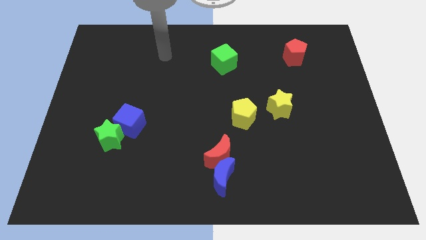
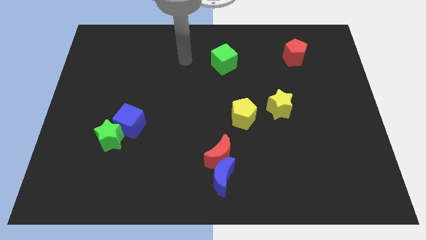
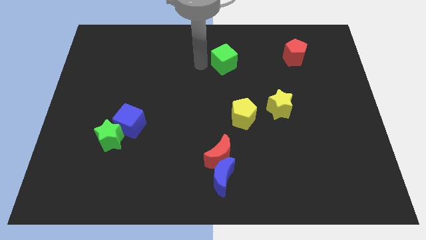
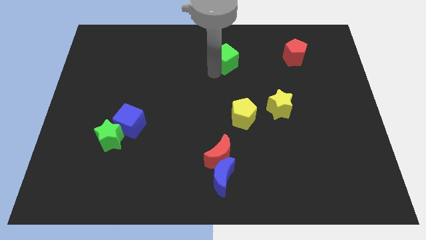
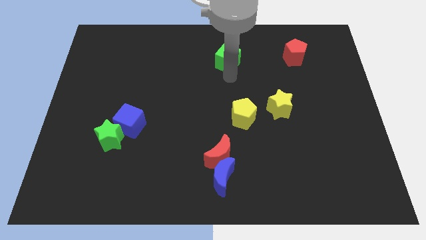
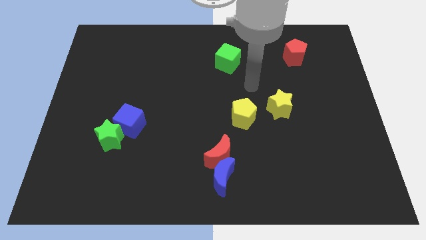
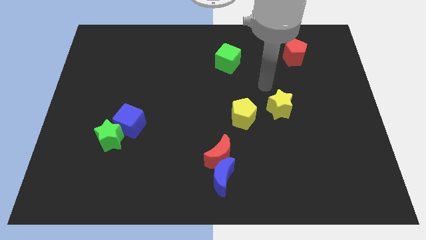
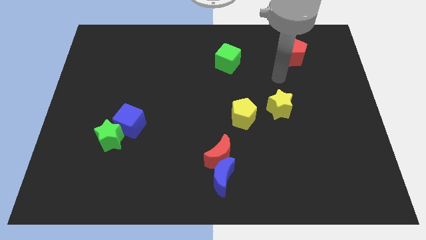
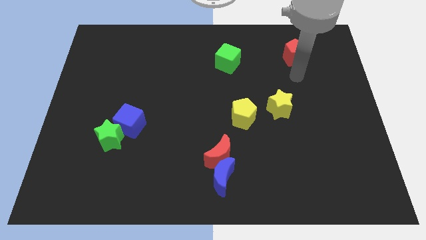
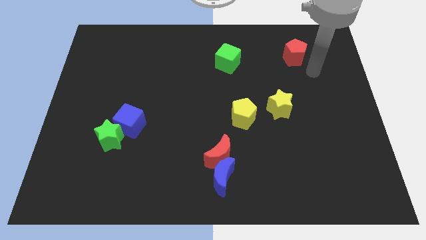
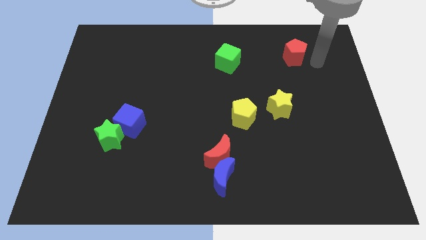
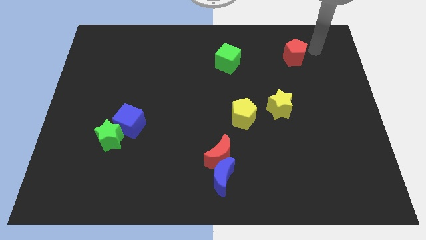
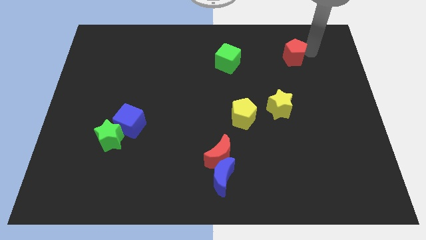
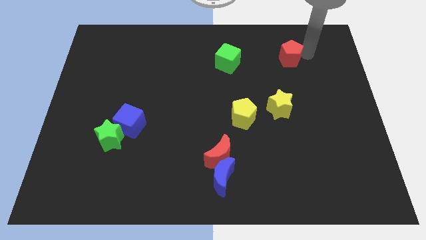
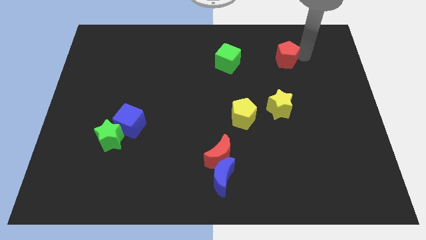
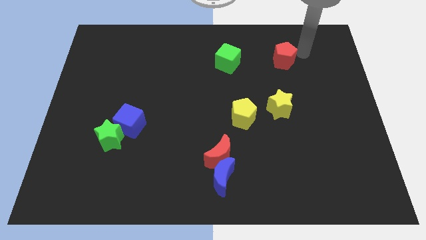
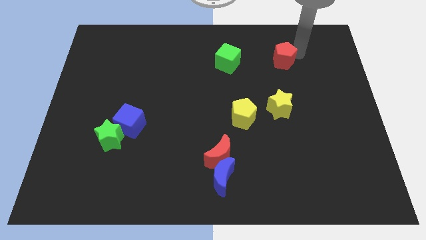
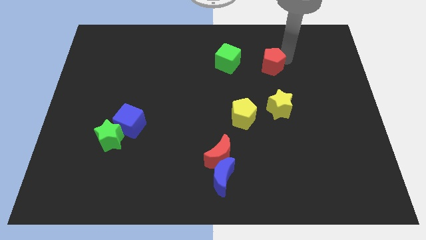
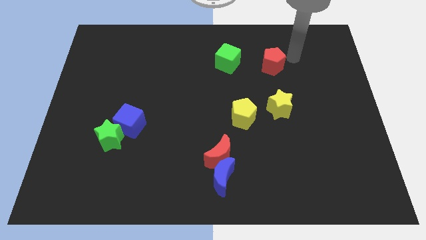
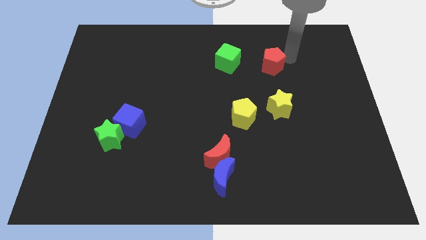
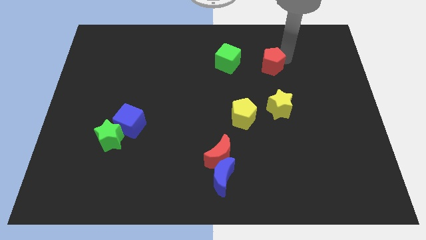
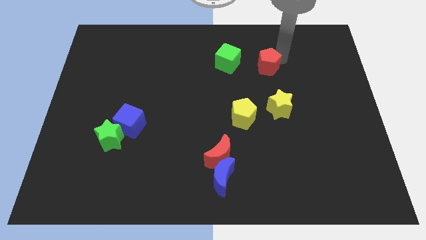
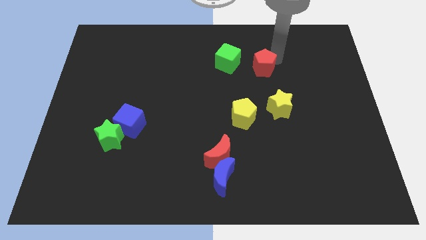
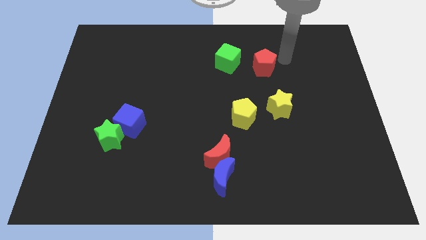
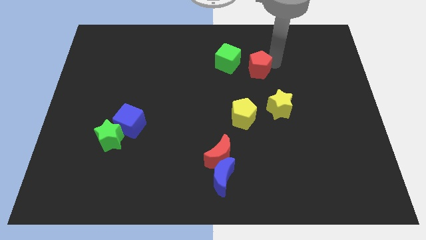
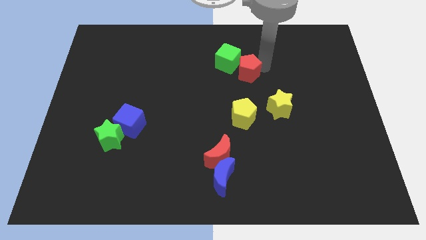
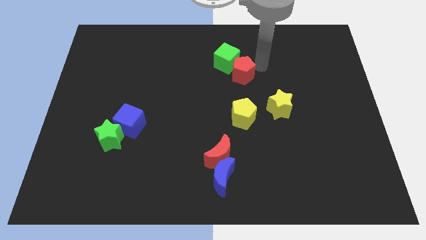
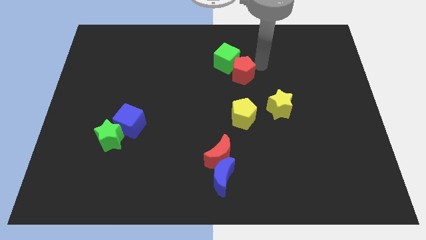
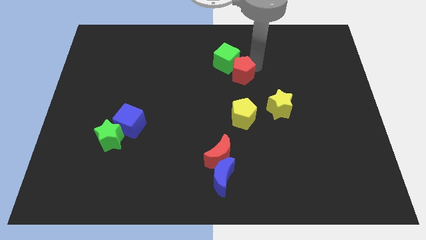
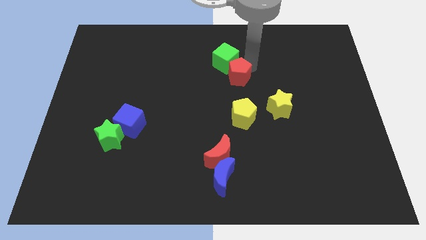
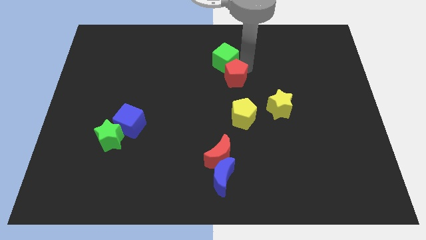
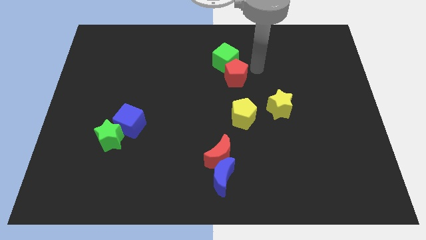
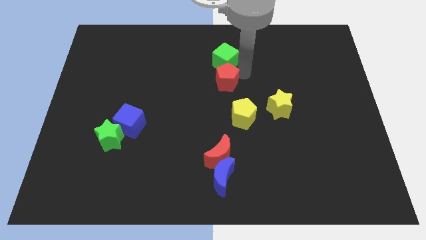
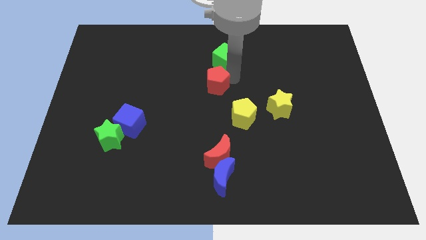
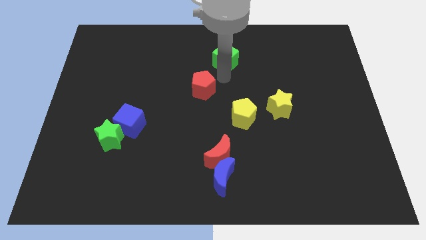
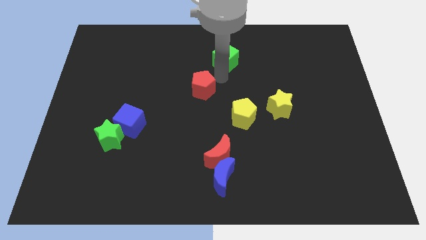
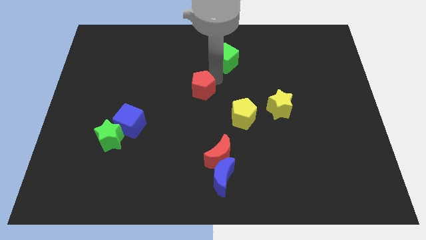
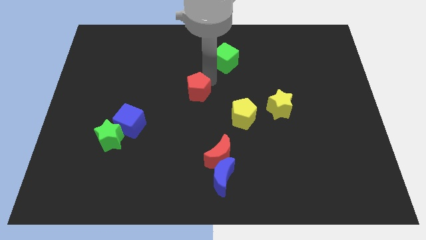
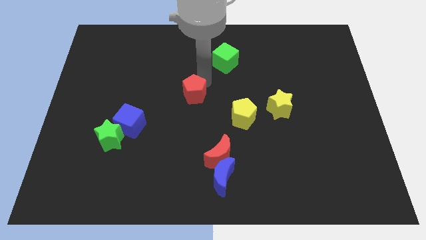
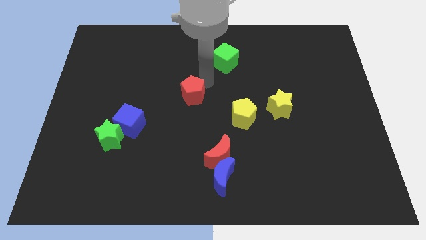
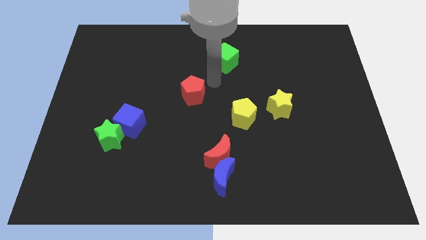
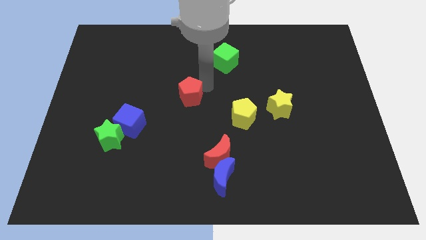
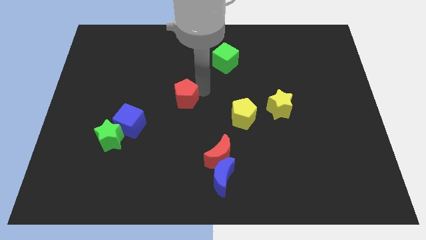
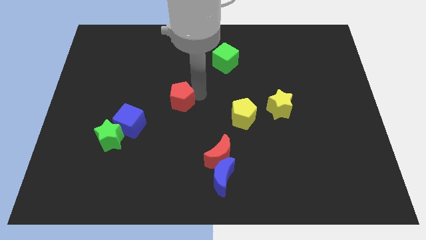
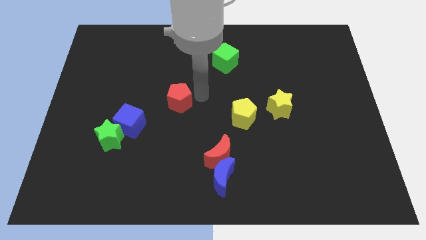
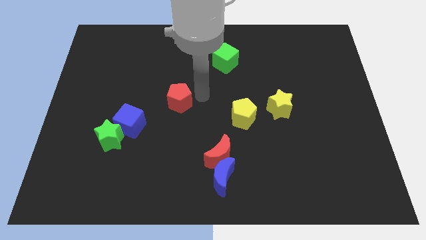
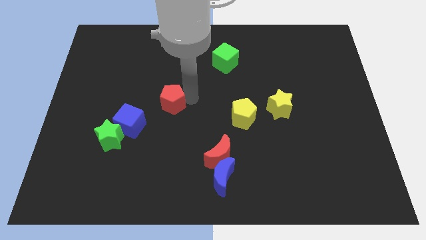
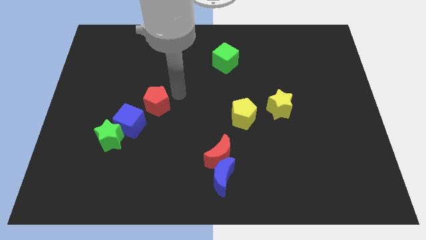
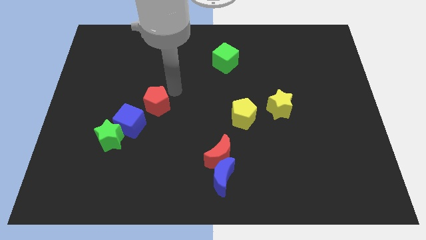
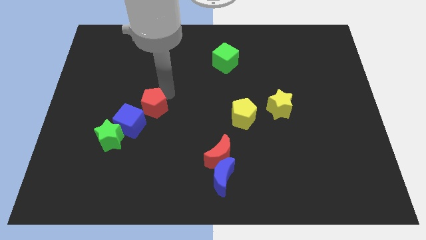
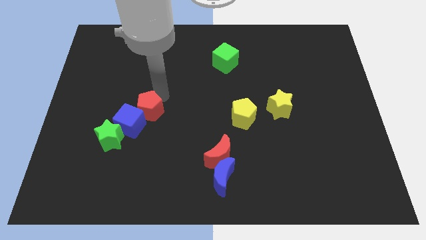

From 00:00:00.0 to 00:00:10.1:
slide the red pentagon close to the blue cube

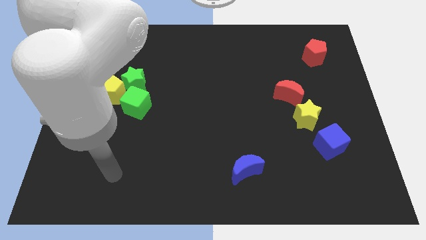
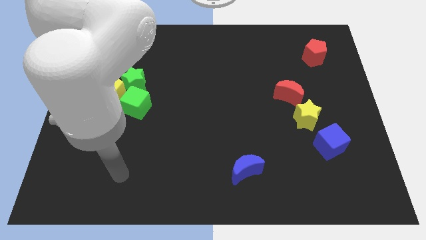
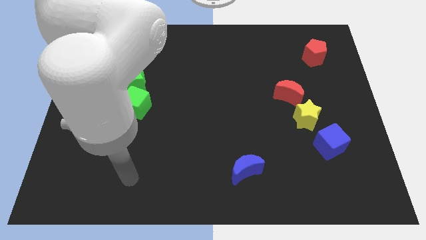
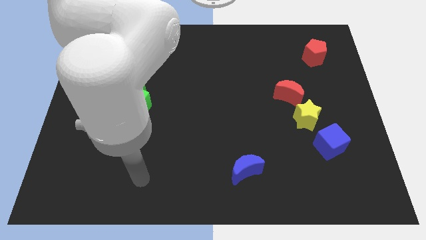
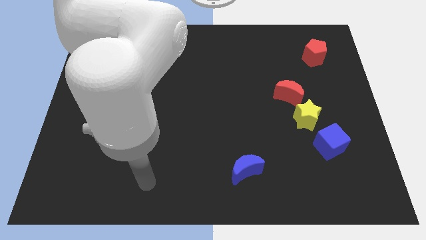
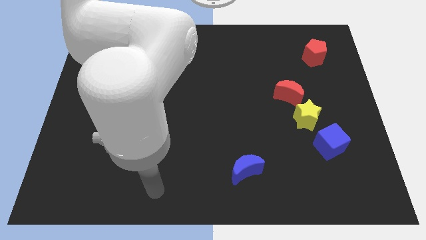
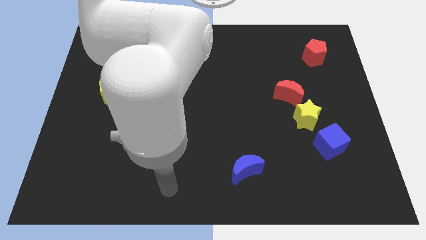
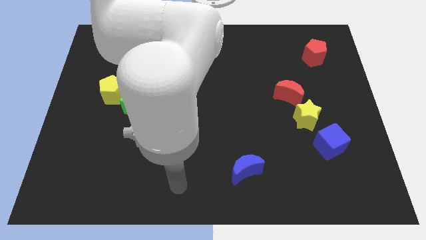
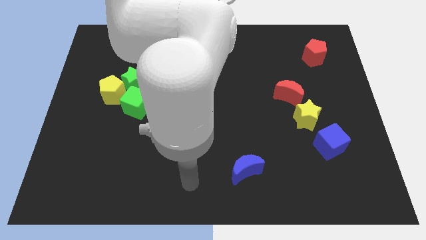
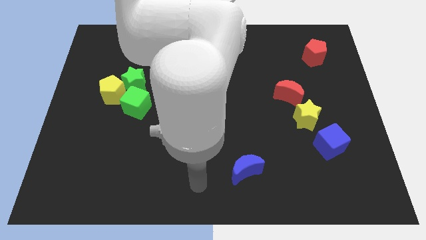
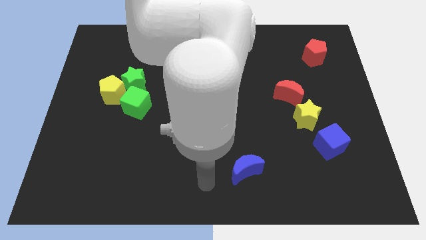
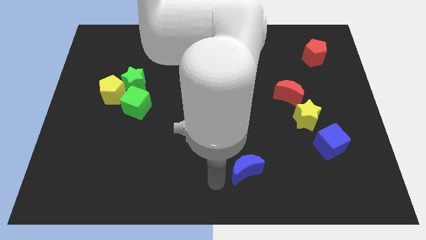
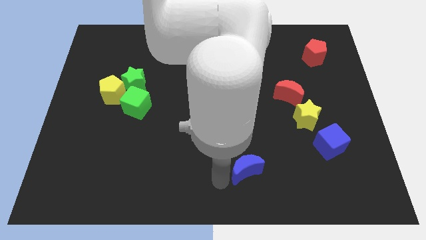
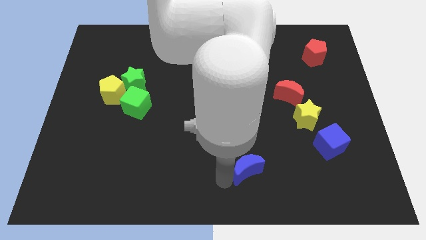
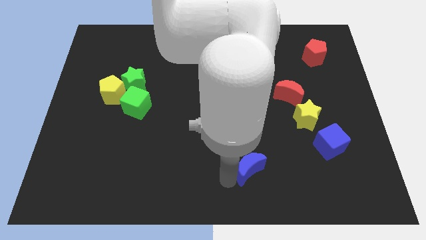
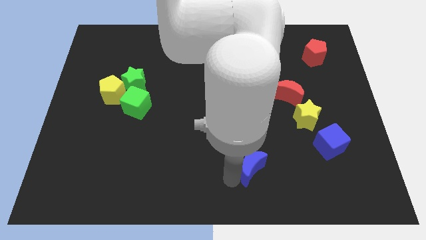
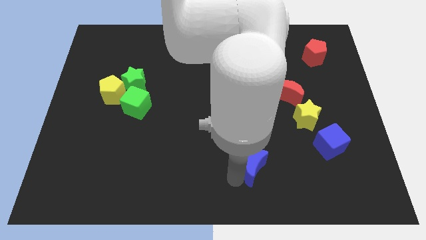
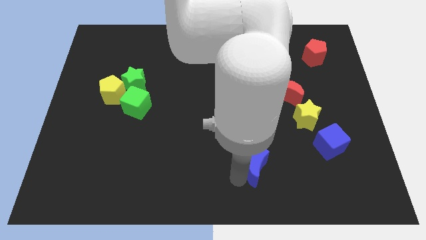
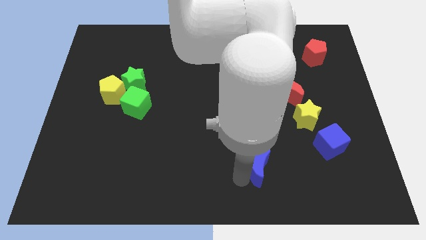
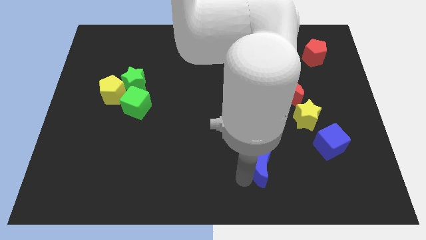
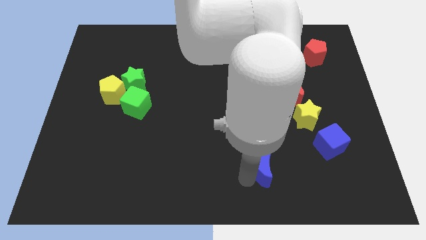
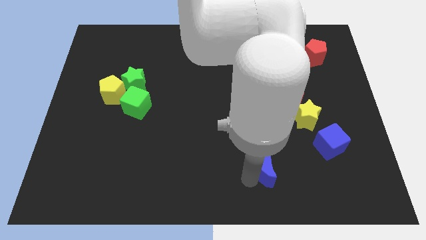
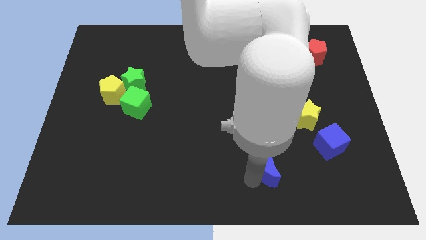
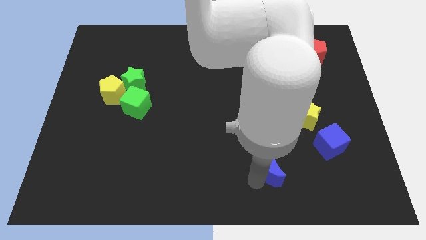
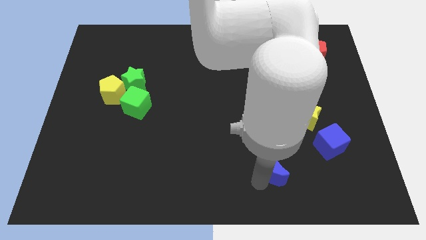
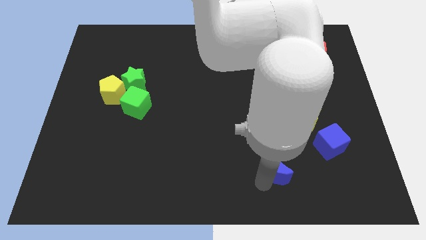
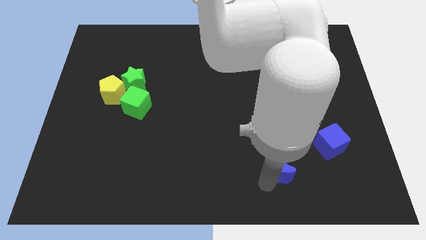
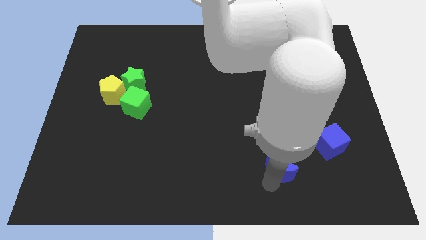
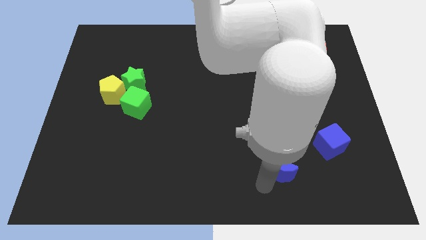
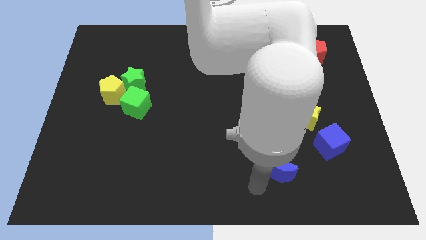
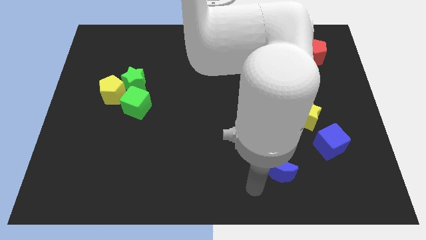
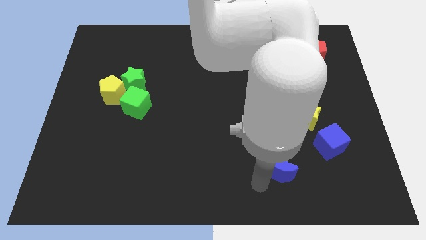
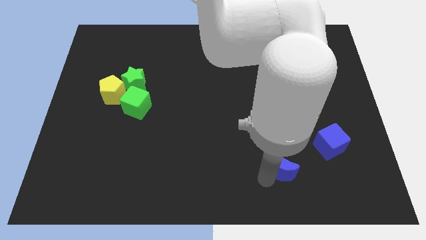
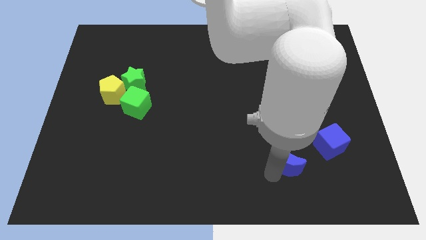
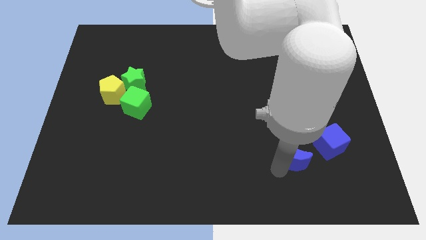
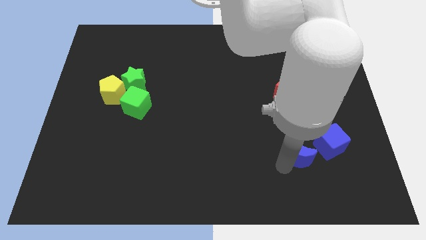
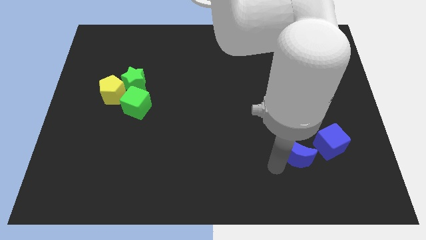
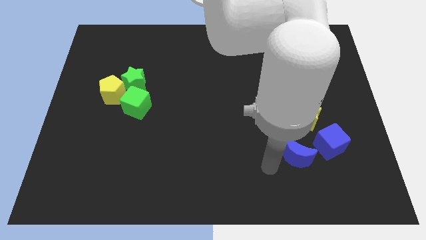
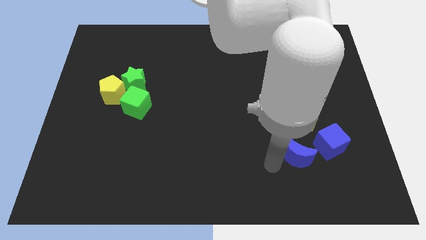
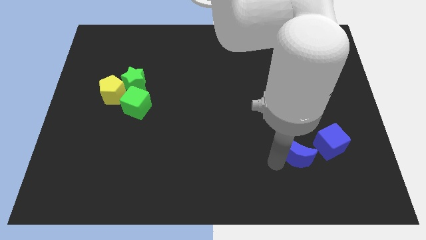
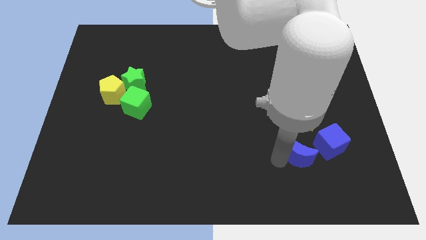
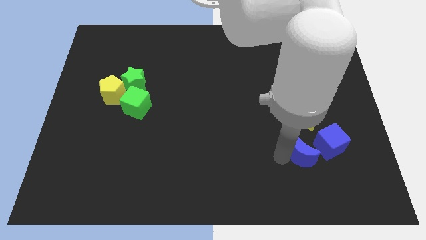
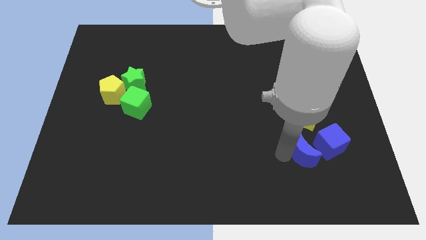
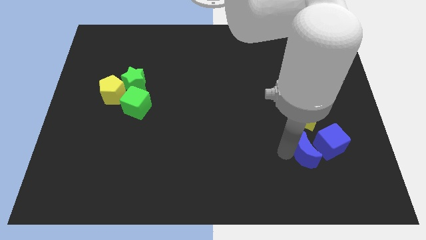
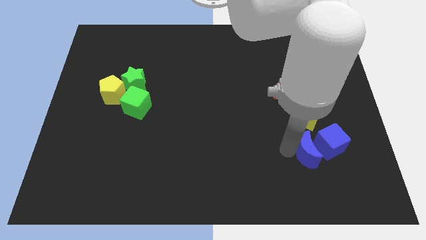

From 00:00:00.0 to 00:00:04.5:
push the blue moon towards the blue cube
